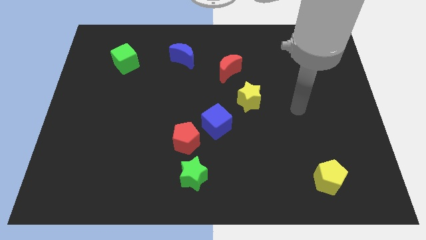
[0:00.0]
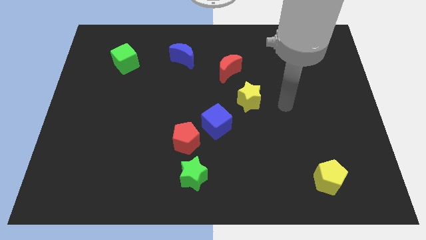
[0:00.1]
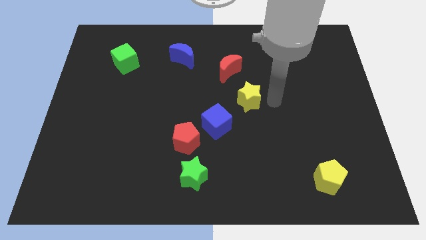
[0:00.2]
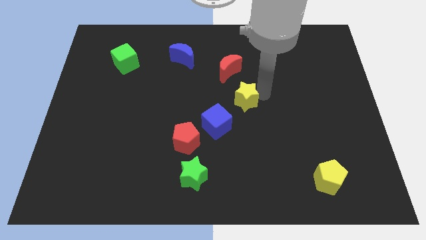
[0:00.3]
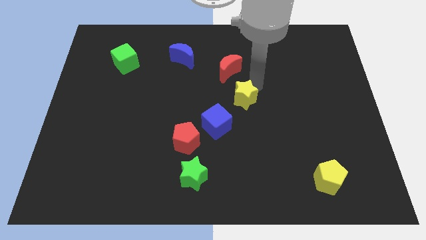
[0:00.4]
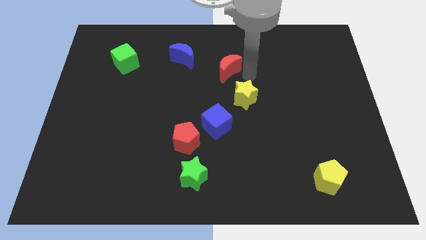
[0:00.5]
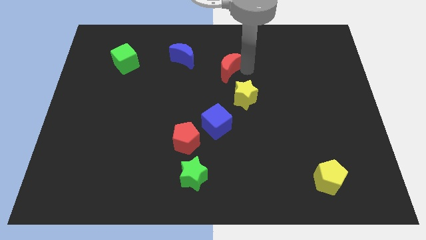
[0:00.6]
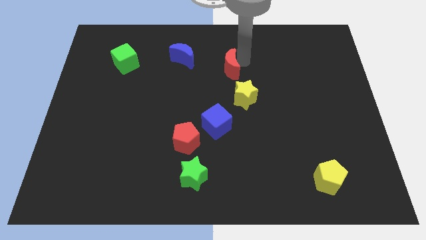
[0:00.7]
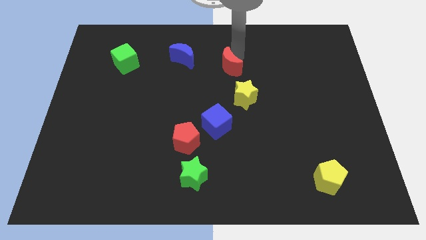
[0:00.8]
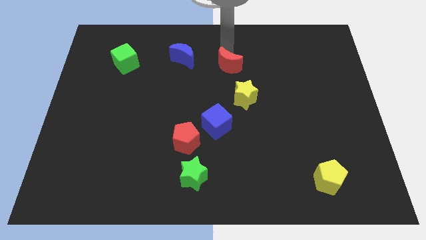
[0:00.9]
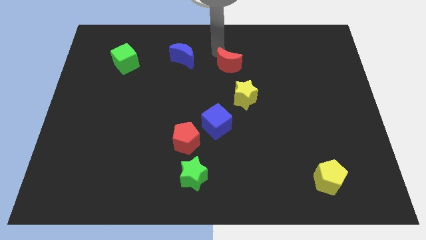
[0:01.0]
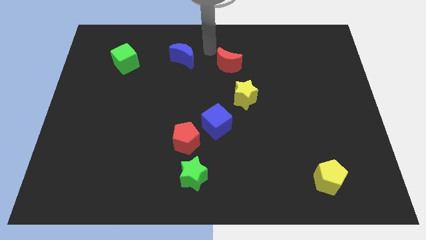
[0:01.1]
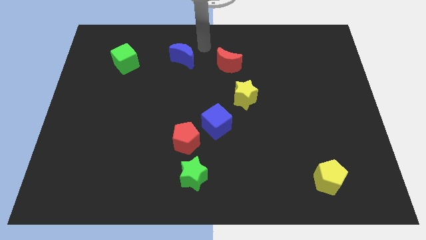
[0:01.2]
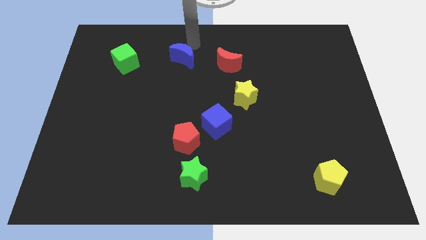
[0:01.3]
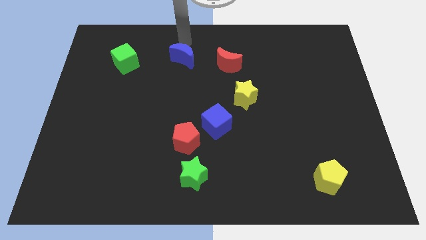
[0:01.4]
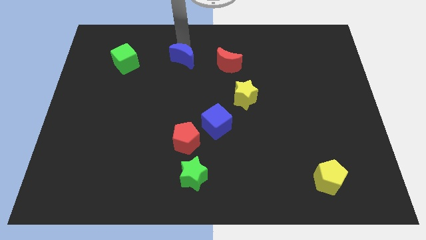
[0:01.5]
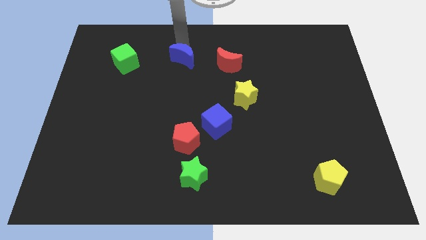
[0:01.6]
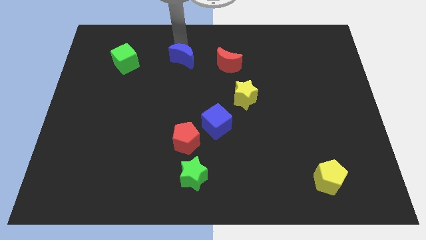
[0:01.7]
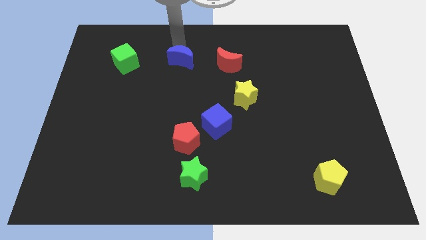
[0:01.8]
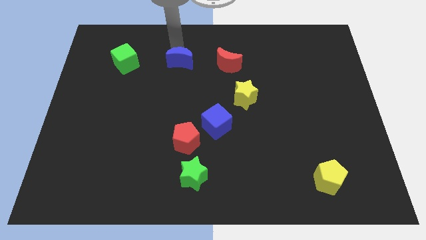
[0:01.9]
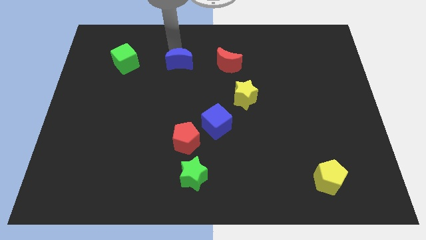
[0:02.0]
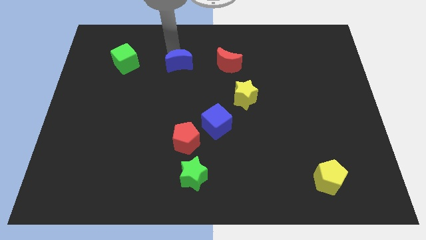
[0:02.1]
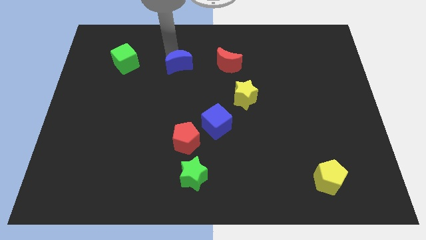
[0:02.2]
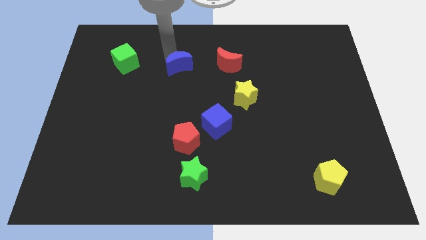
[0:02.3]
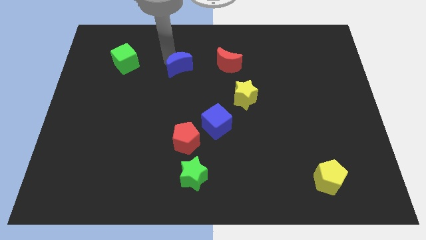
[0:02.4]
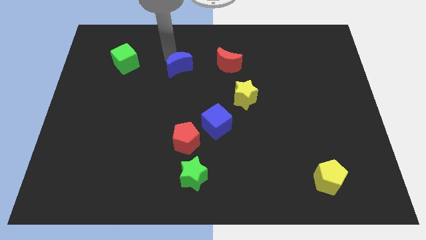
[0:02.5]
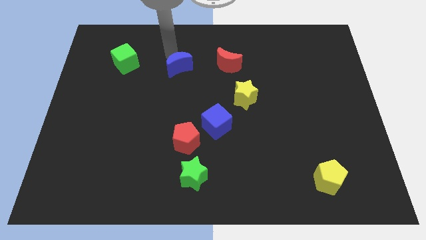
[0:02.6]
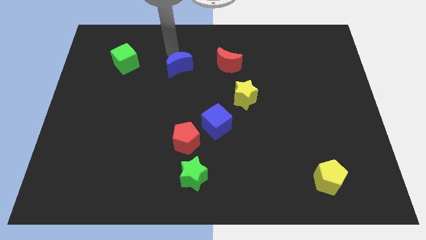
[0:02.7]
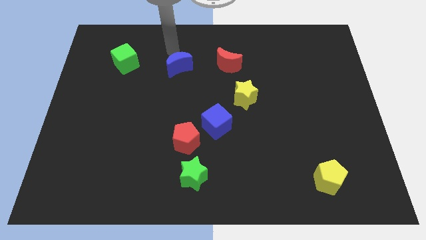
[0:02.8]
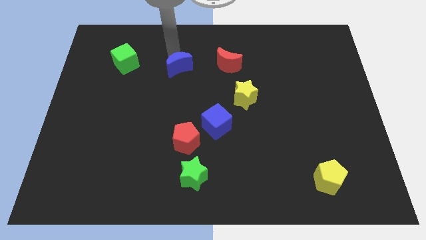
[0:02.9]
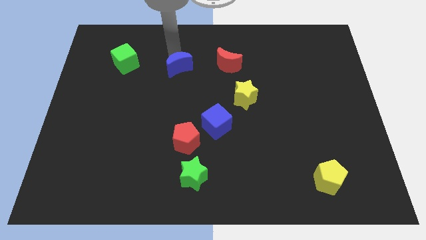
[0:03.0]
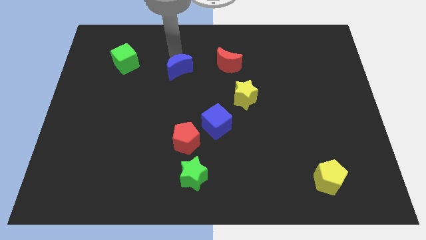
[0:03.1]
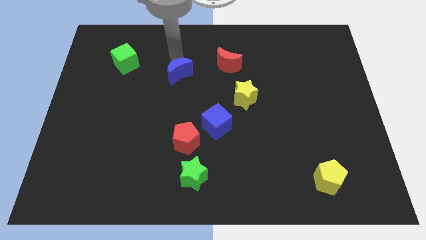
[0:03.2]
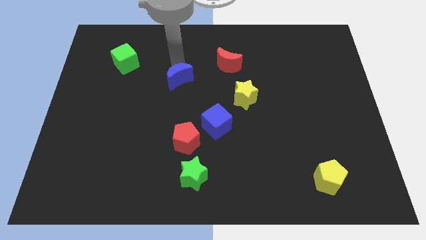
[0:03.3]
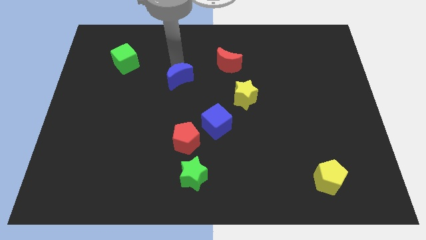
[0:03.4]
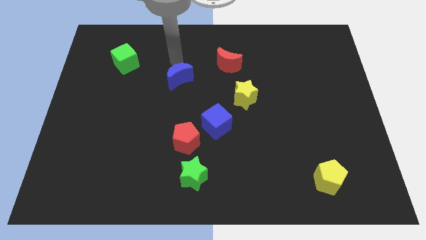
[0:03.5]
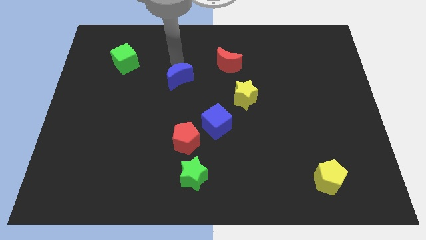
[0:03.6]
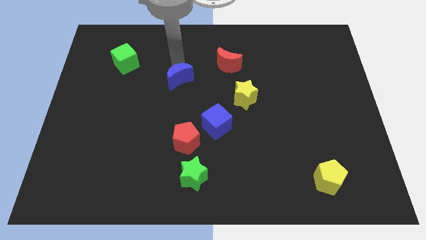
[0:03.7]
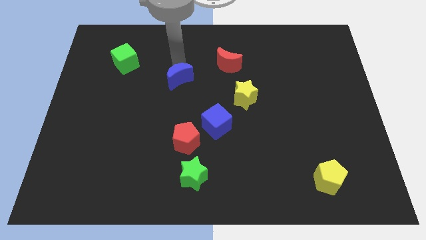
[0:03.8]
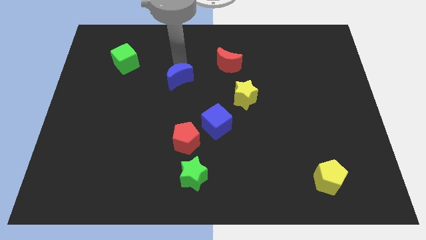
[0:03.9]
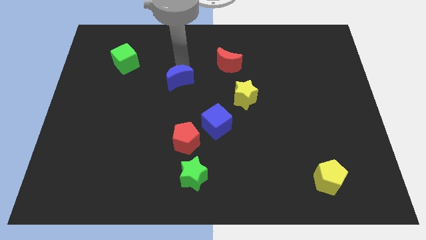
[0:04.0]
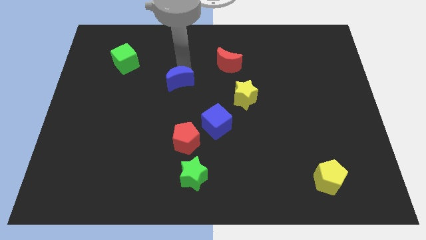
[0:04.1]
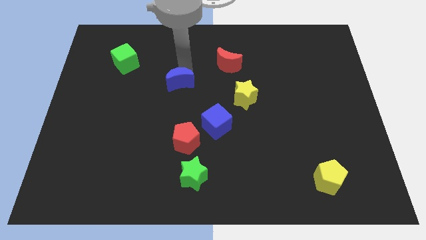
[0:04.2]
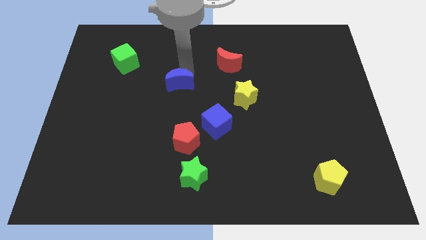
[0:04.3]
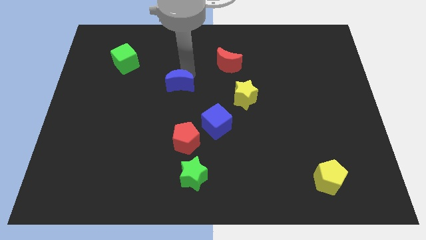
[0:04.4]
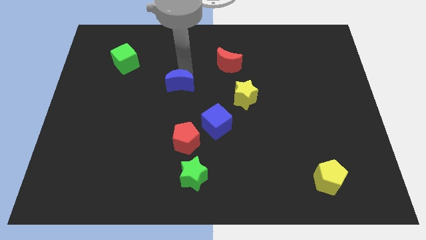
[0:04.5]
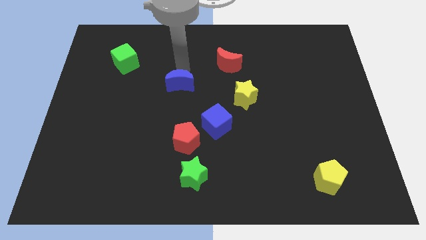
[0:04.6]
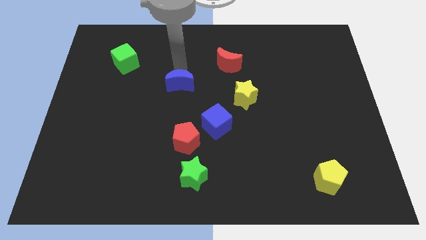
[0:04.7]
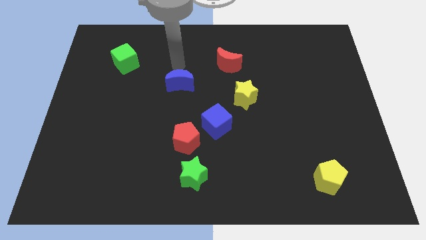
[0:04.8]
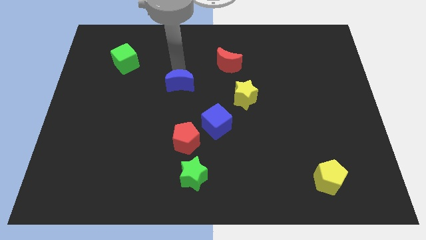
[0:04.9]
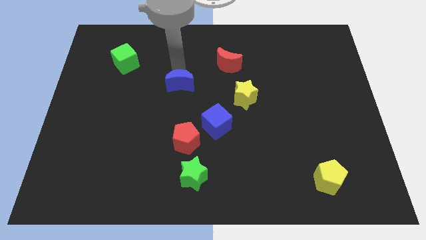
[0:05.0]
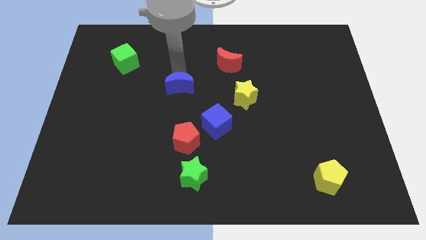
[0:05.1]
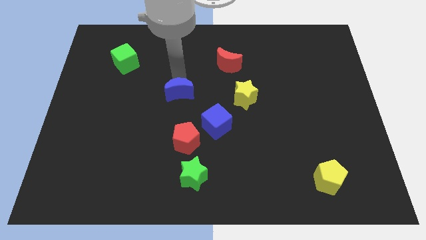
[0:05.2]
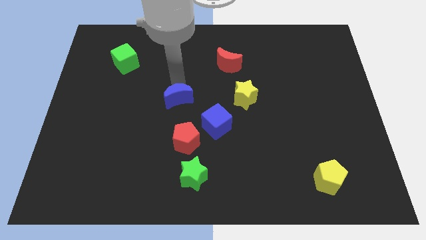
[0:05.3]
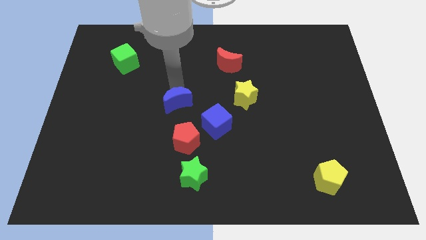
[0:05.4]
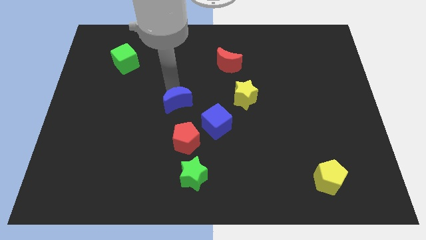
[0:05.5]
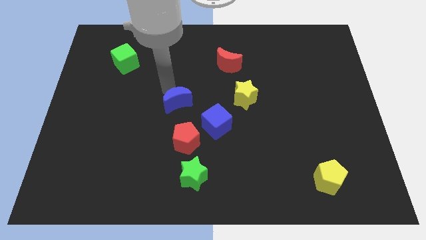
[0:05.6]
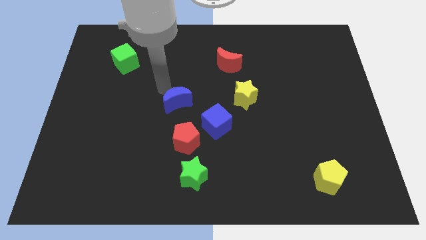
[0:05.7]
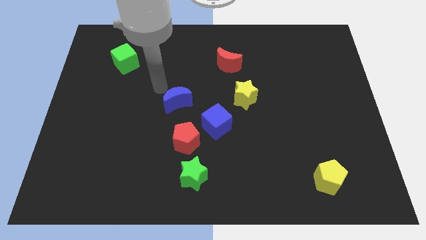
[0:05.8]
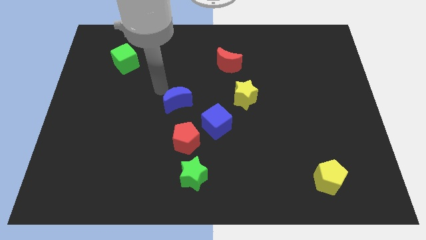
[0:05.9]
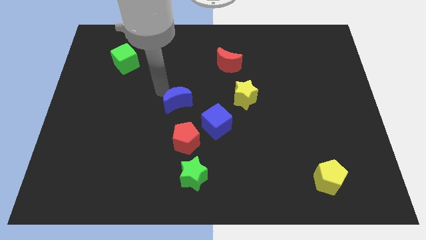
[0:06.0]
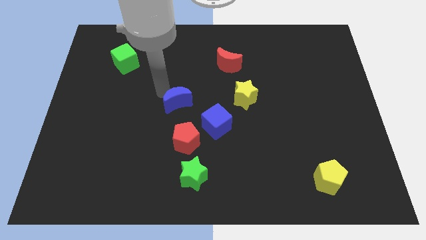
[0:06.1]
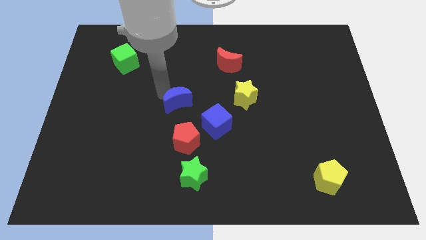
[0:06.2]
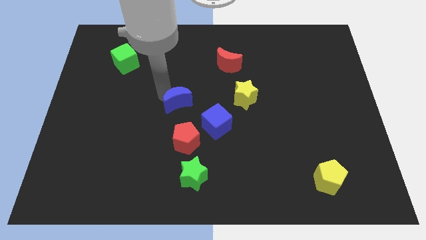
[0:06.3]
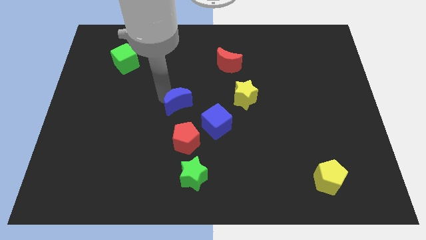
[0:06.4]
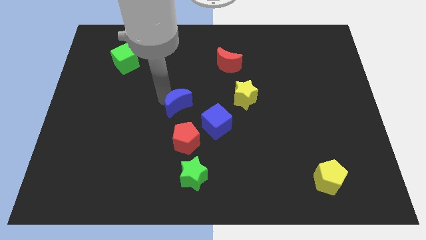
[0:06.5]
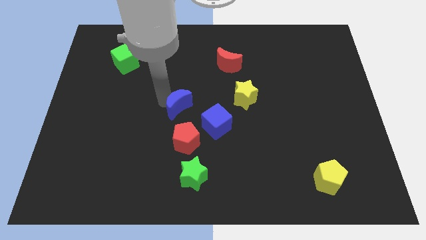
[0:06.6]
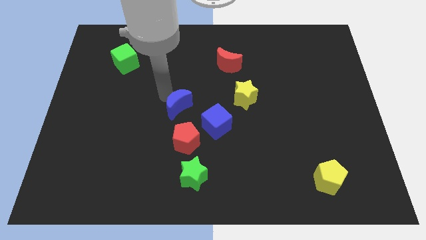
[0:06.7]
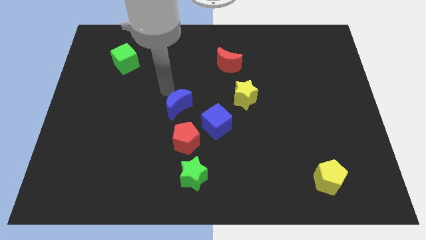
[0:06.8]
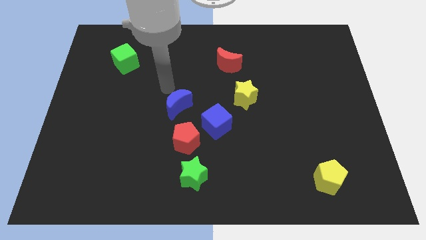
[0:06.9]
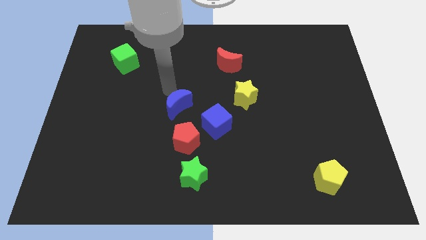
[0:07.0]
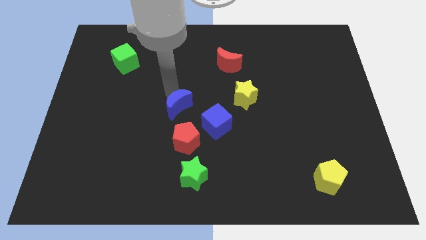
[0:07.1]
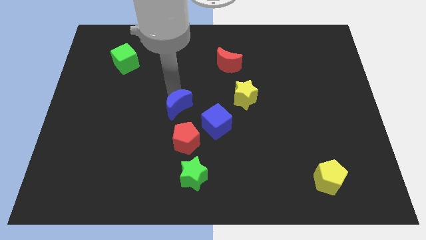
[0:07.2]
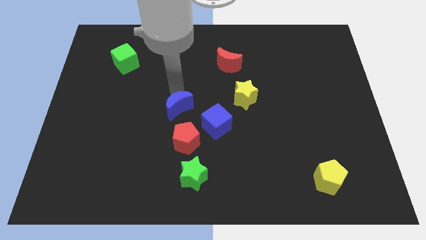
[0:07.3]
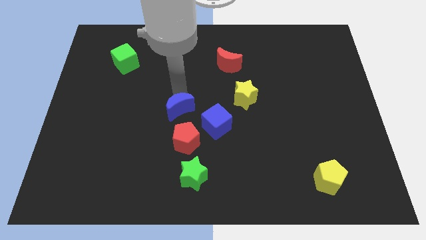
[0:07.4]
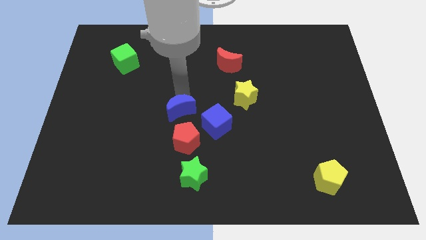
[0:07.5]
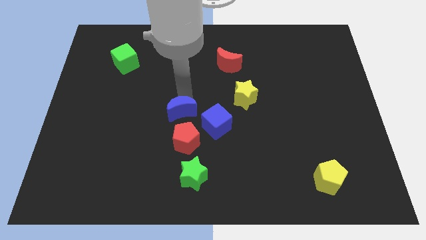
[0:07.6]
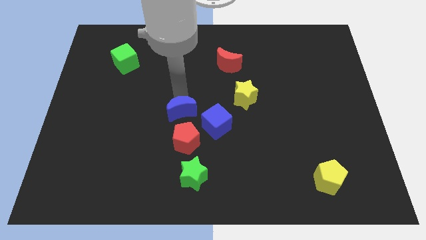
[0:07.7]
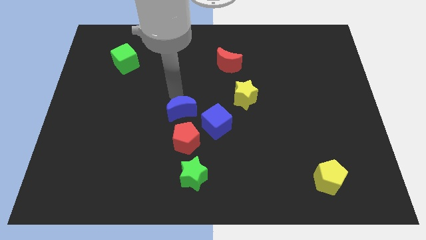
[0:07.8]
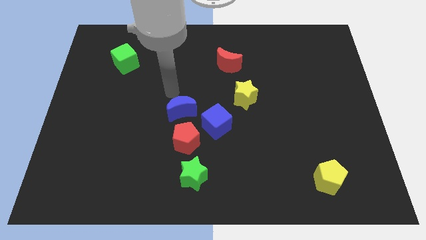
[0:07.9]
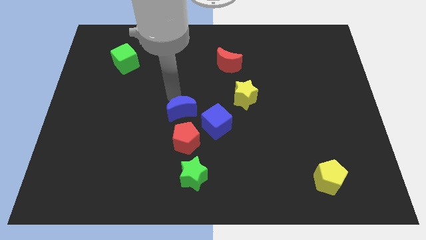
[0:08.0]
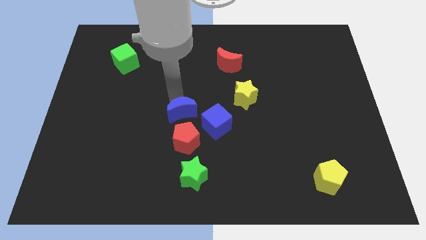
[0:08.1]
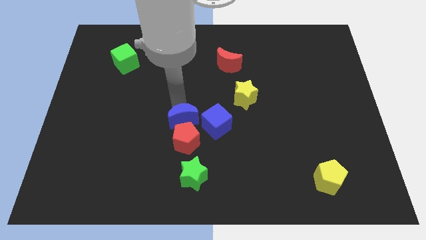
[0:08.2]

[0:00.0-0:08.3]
move the blue moon above the green star
